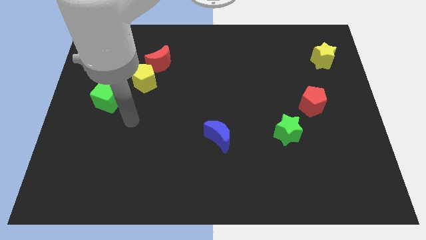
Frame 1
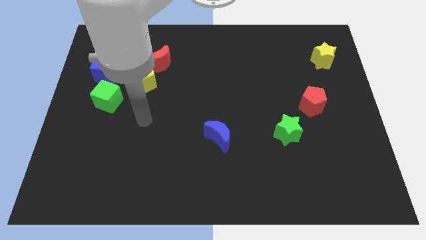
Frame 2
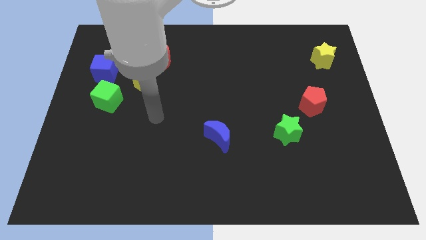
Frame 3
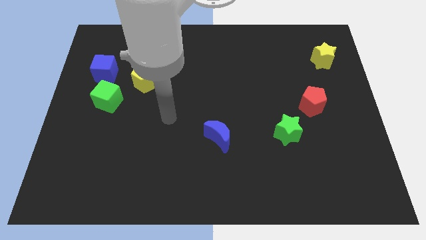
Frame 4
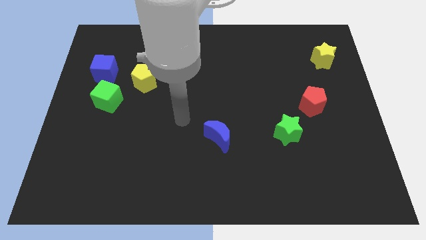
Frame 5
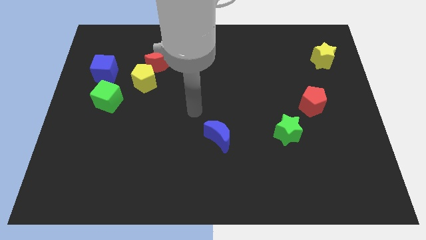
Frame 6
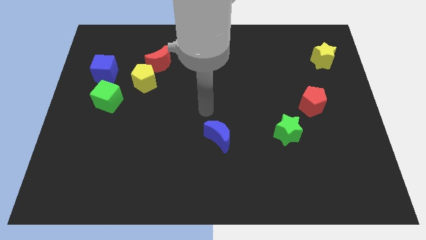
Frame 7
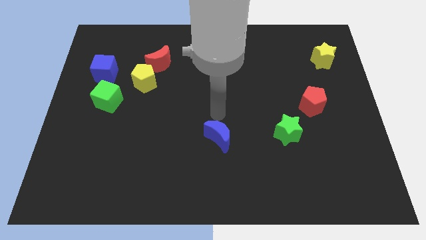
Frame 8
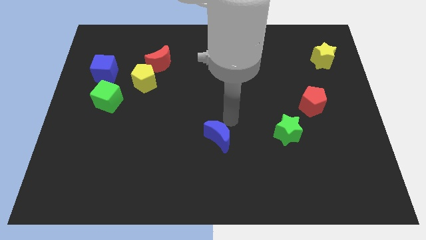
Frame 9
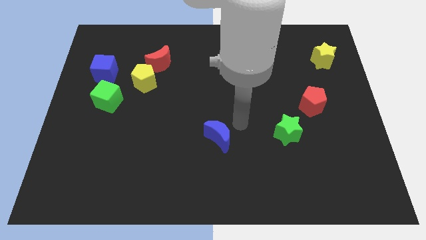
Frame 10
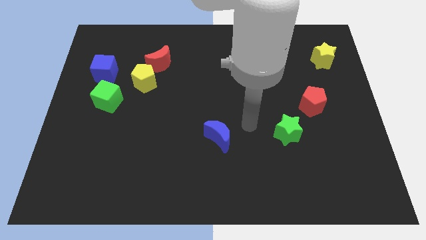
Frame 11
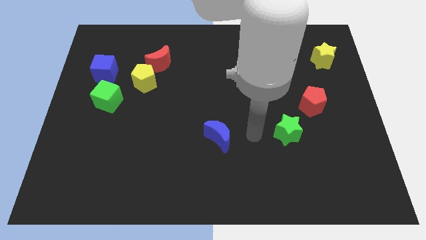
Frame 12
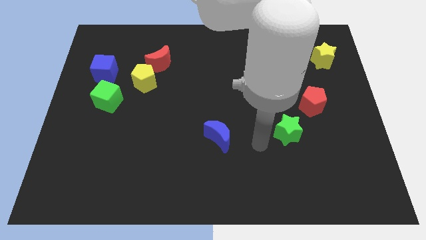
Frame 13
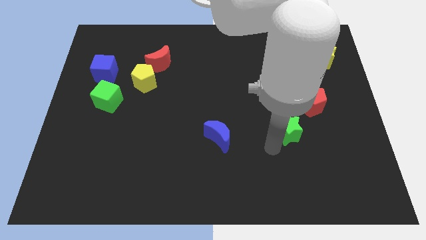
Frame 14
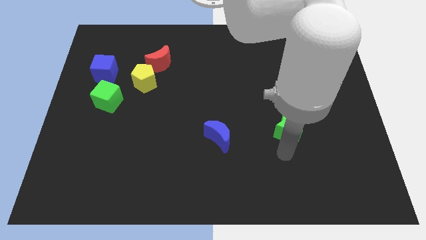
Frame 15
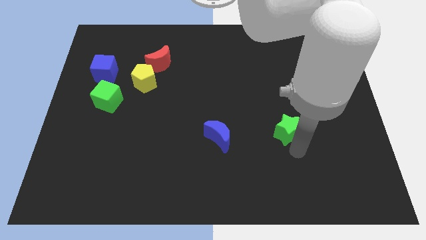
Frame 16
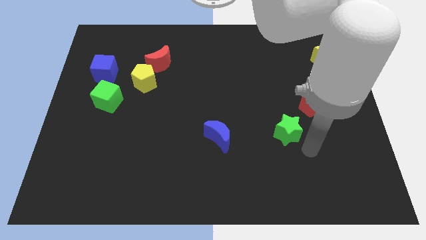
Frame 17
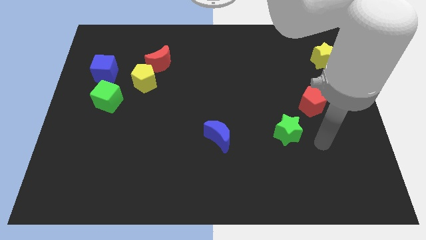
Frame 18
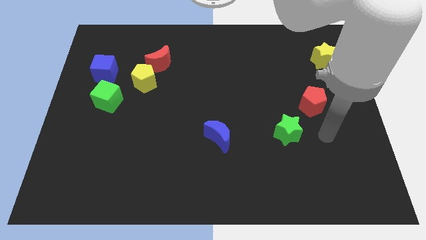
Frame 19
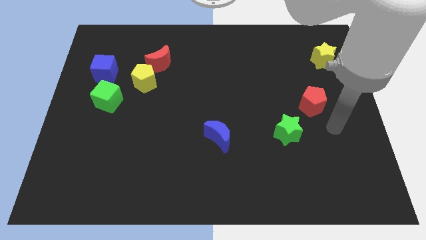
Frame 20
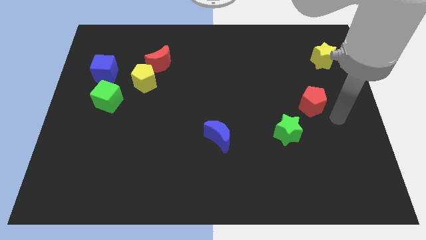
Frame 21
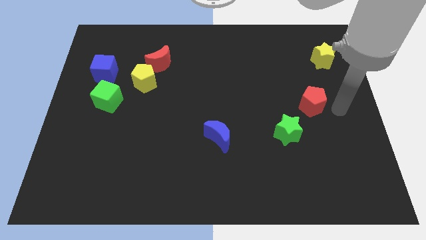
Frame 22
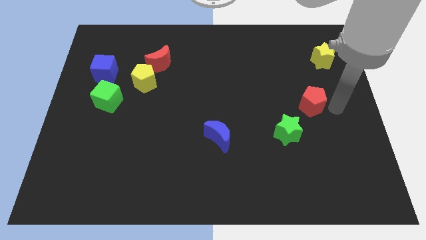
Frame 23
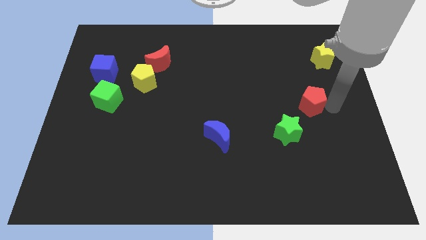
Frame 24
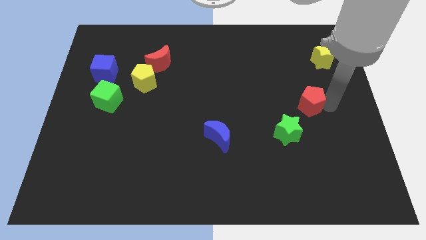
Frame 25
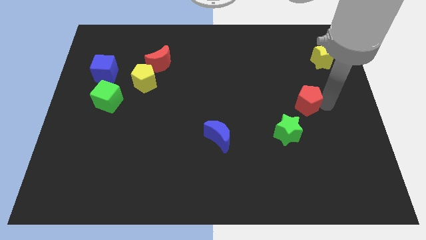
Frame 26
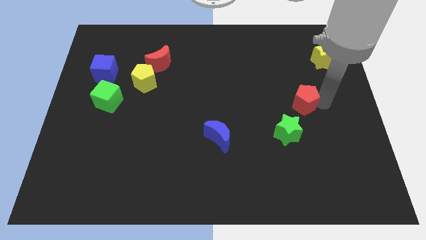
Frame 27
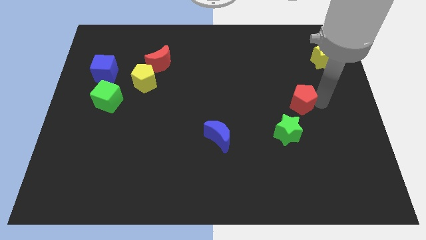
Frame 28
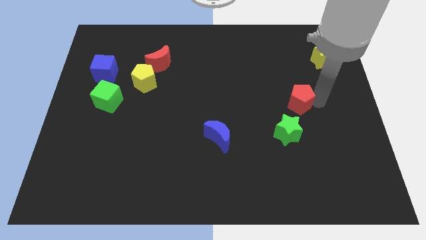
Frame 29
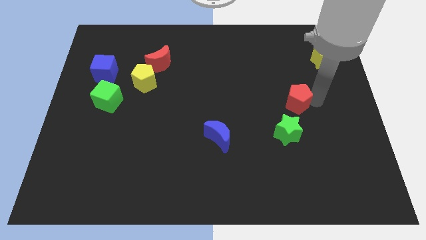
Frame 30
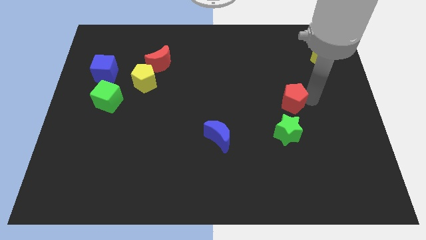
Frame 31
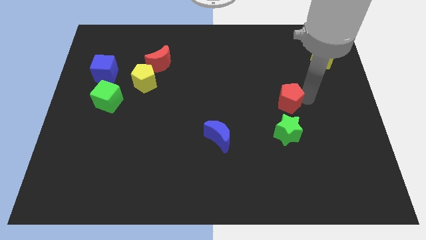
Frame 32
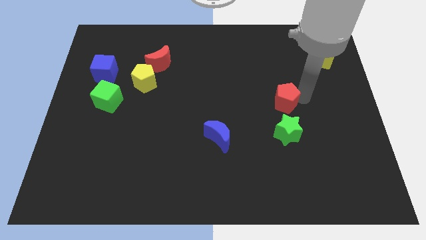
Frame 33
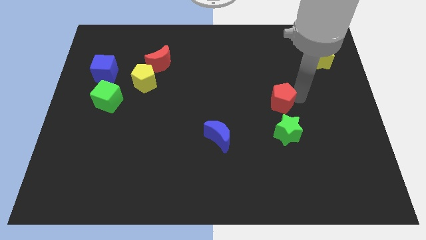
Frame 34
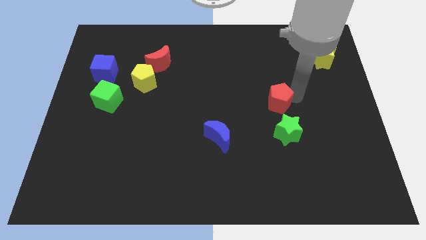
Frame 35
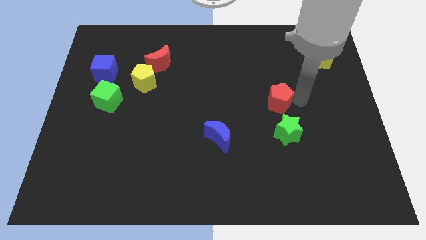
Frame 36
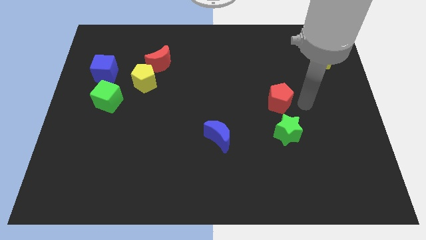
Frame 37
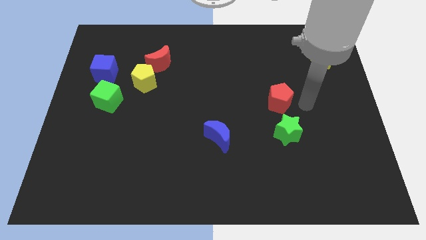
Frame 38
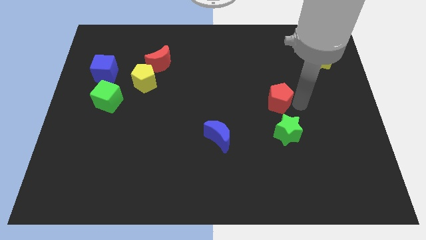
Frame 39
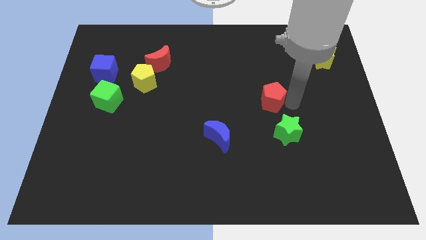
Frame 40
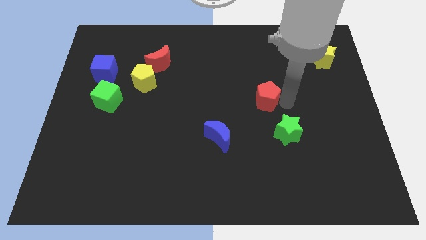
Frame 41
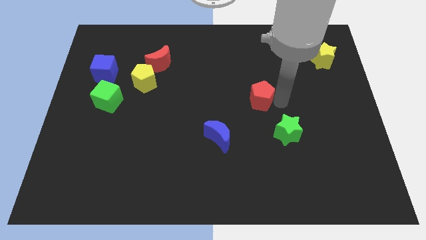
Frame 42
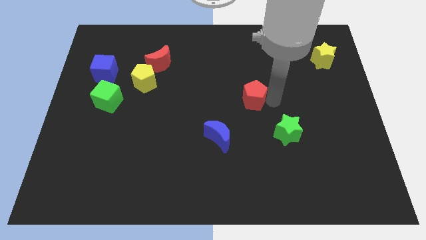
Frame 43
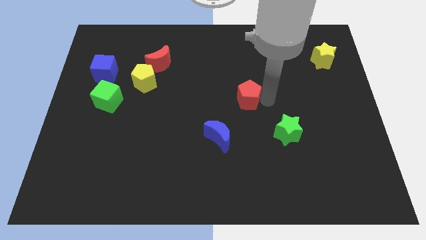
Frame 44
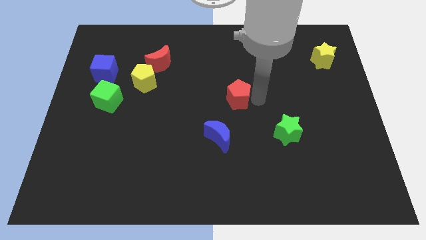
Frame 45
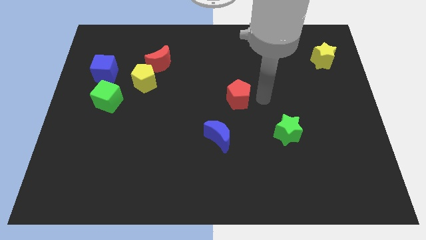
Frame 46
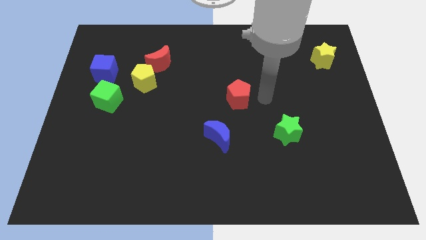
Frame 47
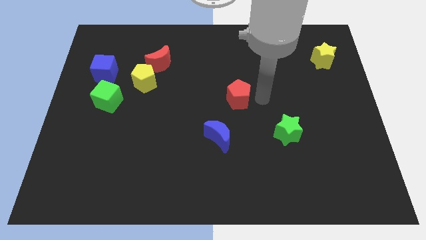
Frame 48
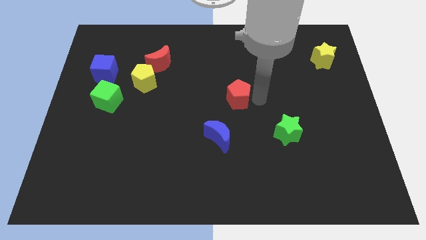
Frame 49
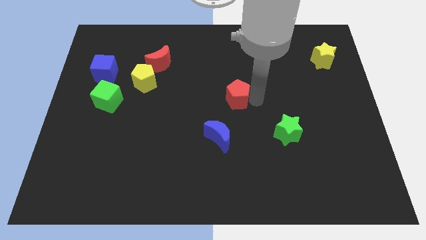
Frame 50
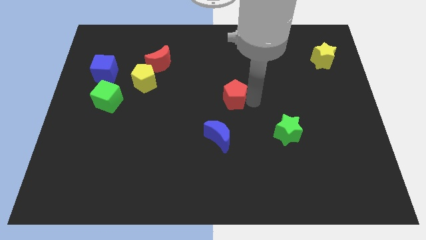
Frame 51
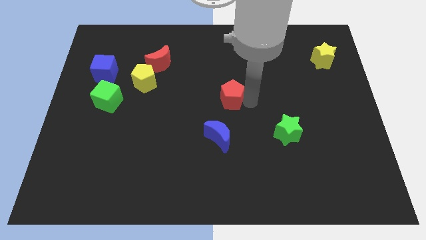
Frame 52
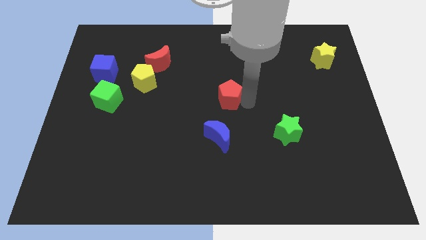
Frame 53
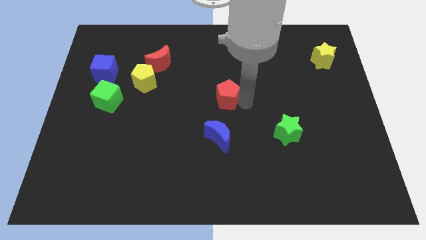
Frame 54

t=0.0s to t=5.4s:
slide the red pentagon to the left

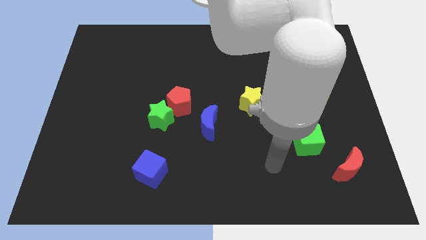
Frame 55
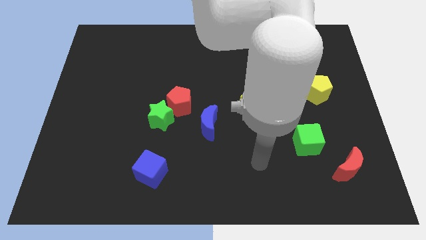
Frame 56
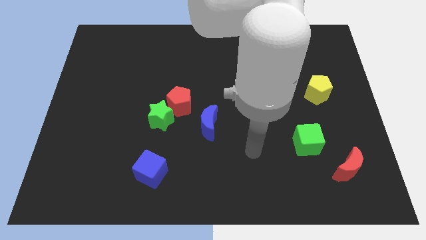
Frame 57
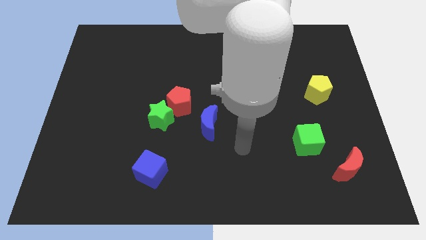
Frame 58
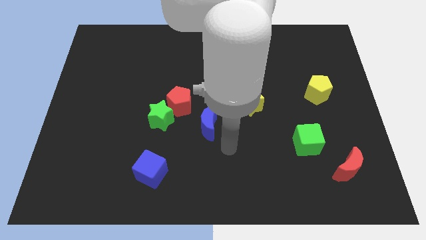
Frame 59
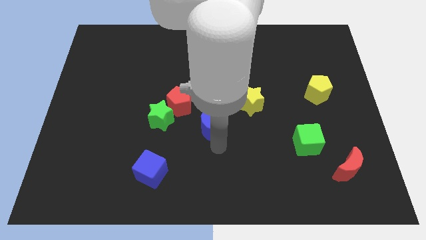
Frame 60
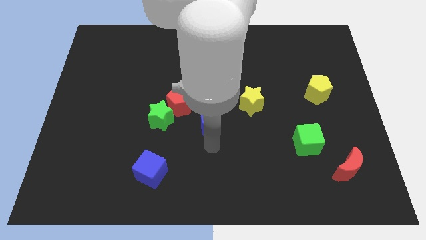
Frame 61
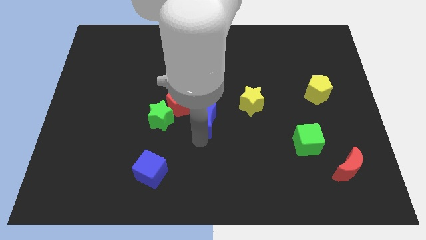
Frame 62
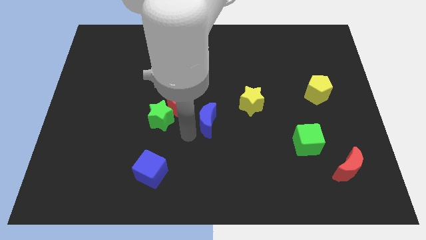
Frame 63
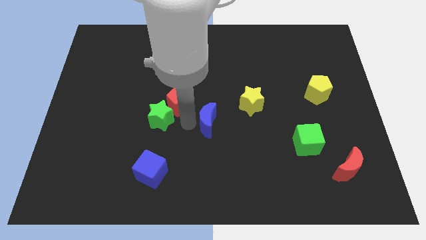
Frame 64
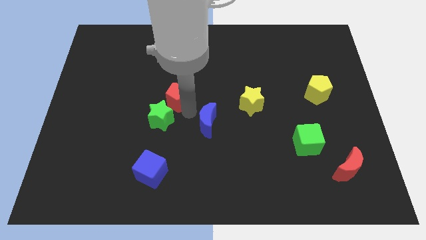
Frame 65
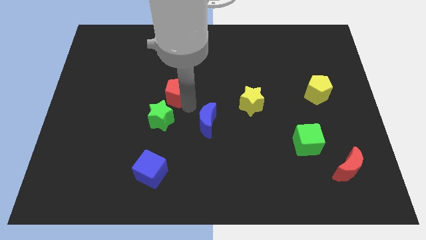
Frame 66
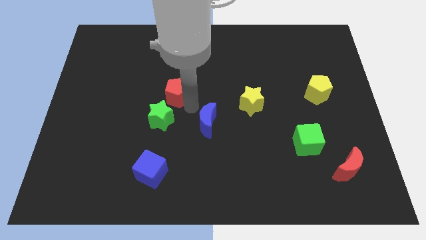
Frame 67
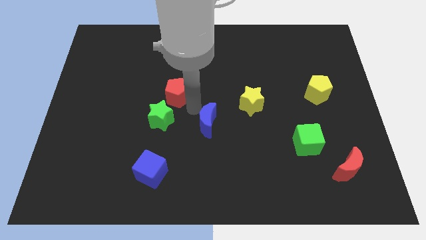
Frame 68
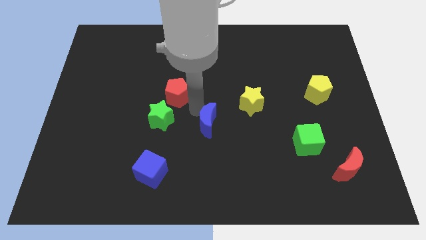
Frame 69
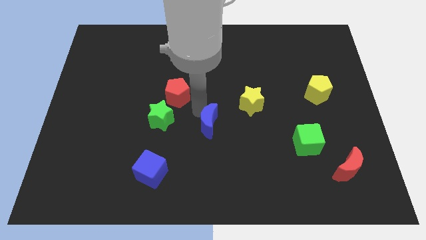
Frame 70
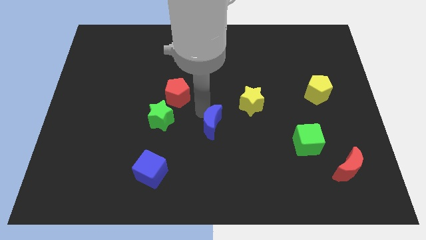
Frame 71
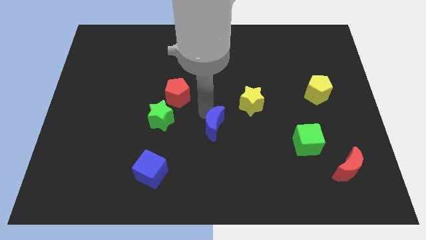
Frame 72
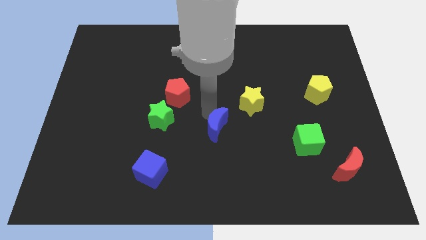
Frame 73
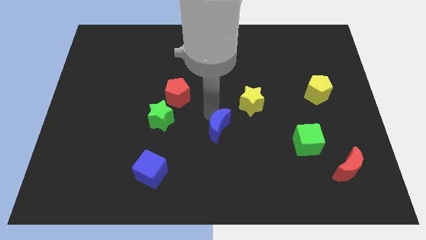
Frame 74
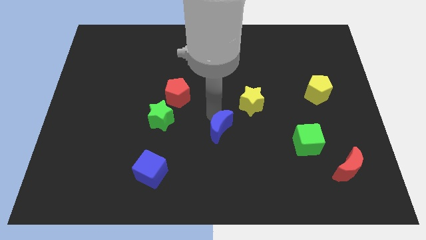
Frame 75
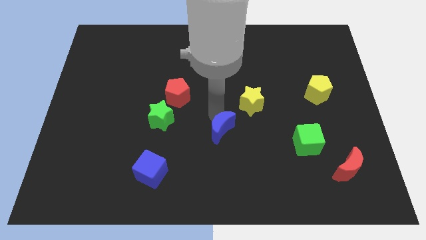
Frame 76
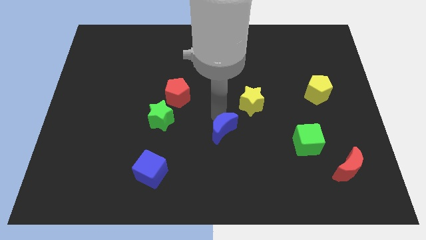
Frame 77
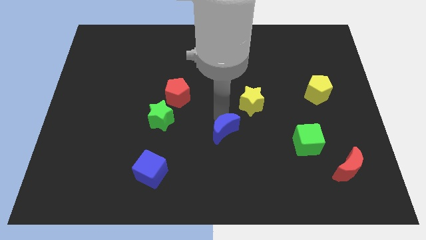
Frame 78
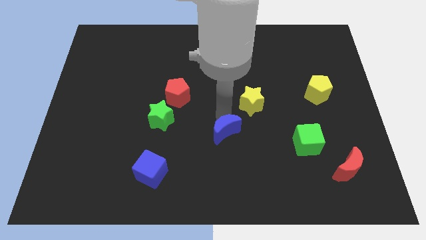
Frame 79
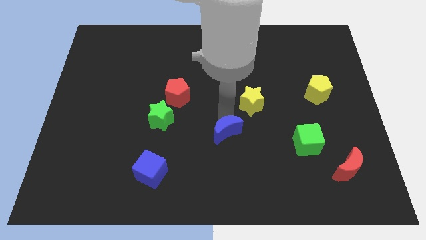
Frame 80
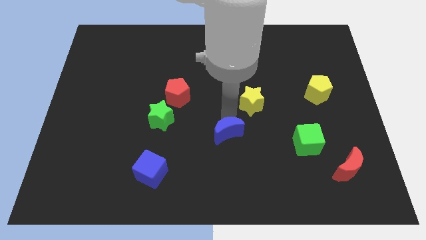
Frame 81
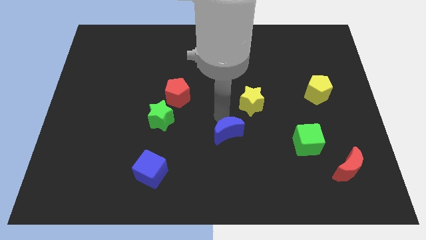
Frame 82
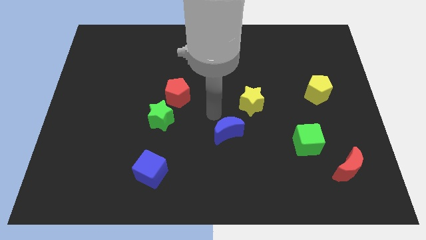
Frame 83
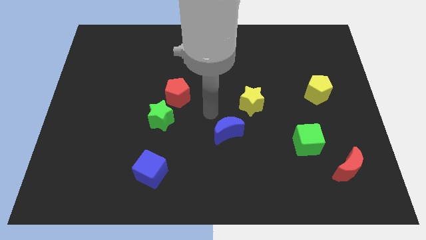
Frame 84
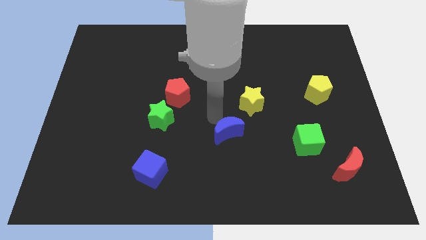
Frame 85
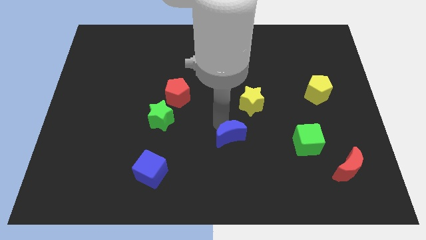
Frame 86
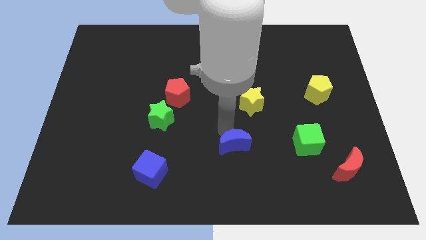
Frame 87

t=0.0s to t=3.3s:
slide the blue moon down and to the right a bit
